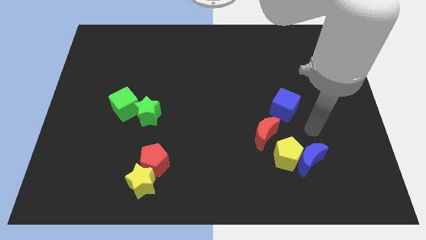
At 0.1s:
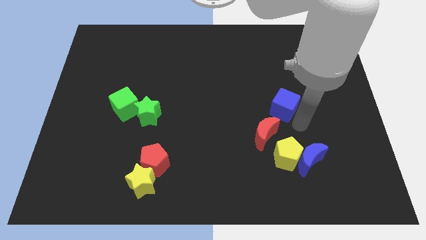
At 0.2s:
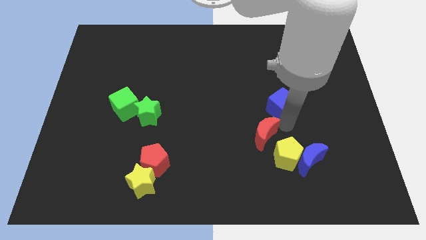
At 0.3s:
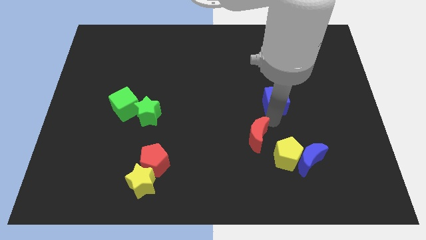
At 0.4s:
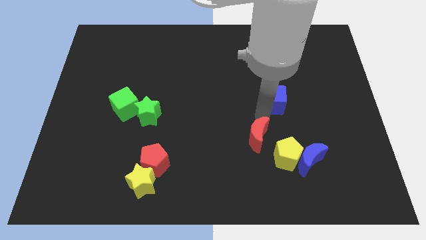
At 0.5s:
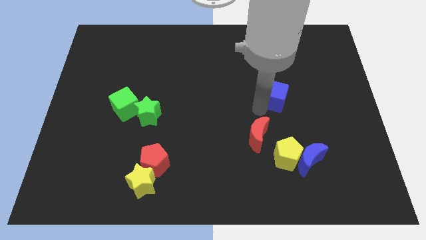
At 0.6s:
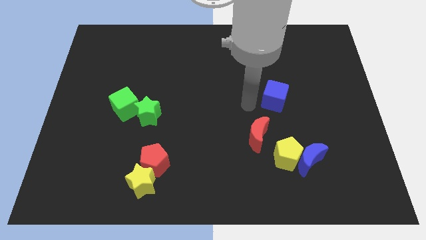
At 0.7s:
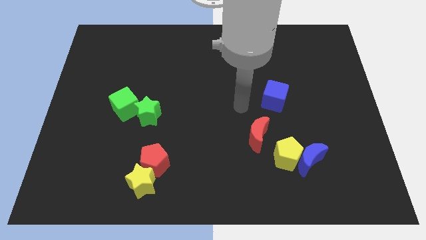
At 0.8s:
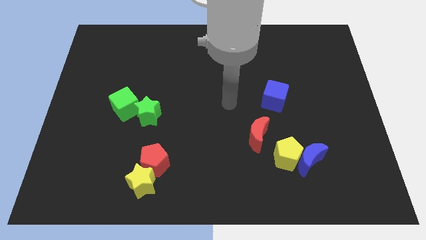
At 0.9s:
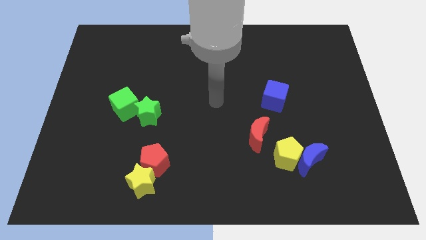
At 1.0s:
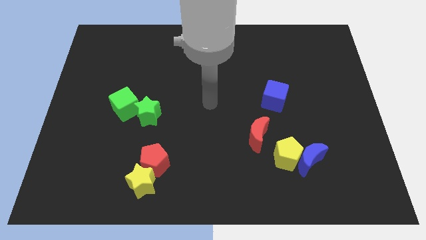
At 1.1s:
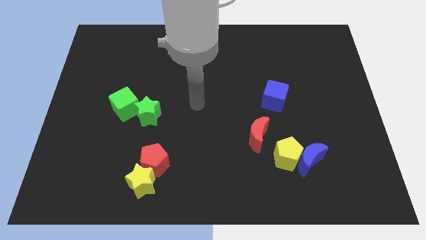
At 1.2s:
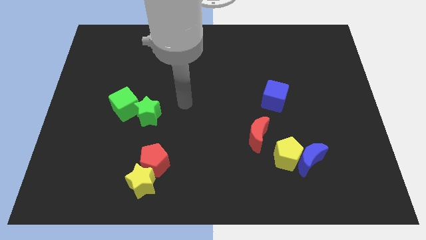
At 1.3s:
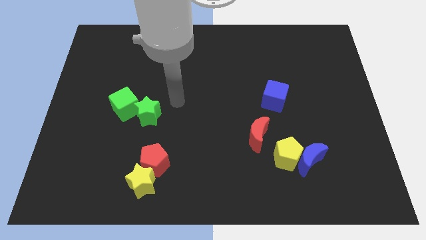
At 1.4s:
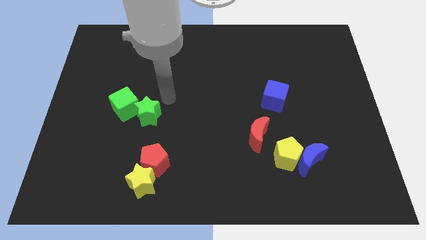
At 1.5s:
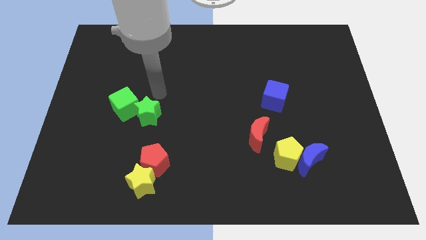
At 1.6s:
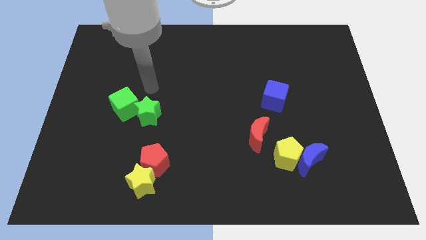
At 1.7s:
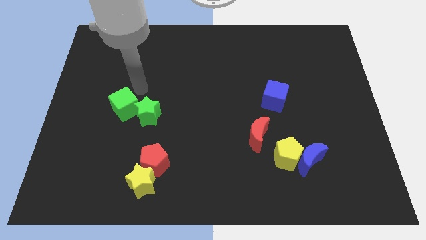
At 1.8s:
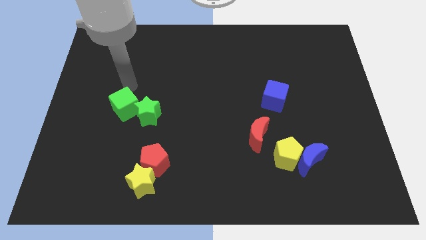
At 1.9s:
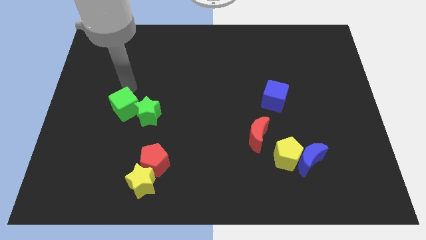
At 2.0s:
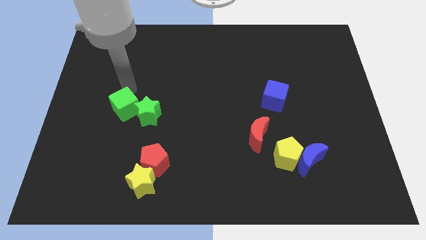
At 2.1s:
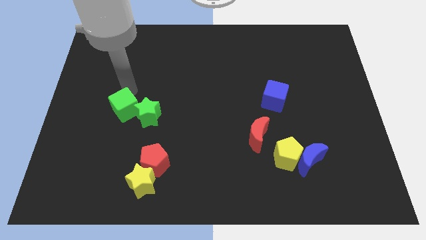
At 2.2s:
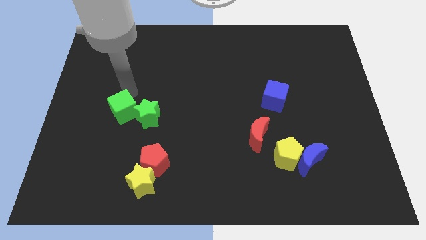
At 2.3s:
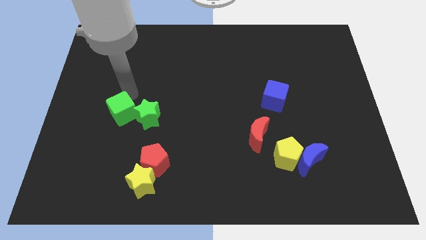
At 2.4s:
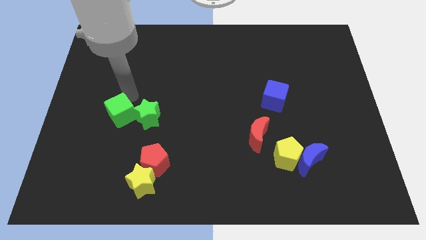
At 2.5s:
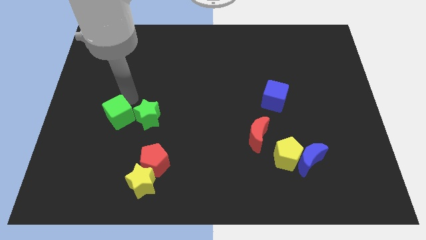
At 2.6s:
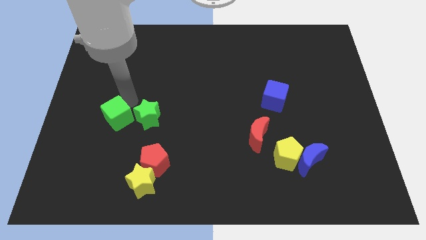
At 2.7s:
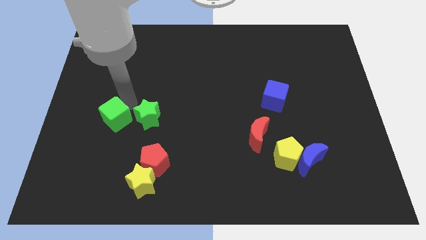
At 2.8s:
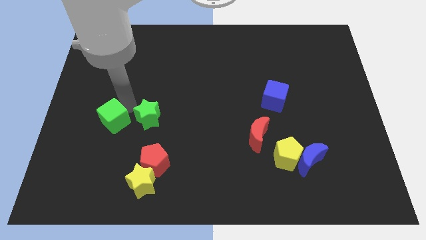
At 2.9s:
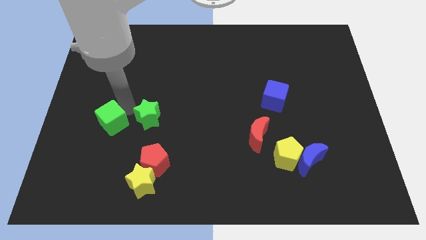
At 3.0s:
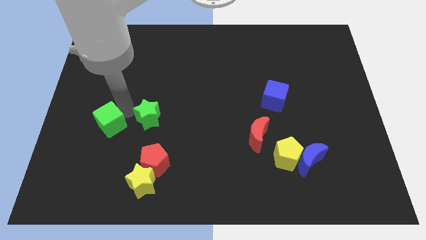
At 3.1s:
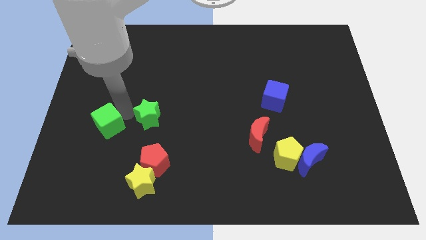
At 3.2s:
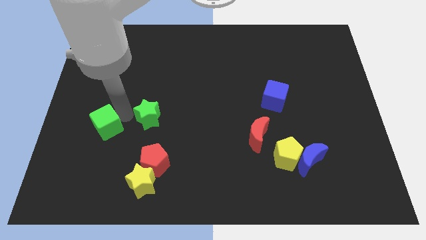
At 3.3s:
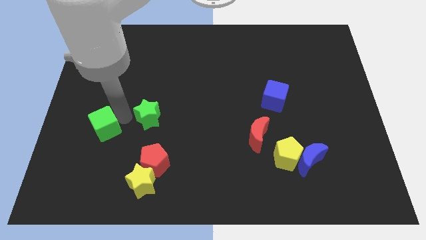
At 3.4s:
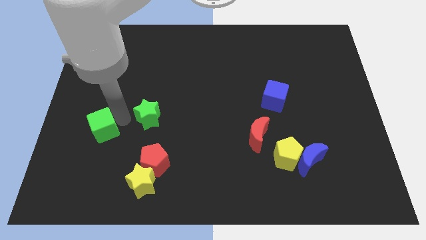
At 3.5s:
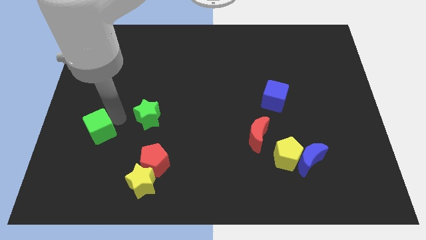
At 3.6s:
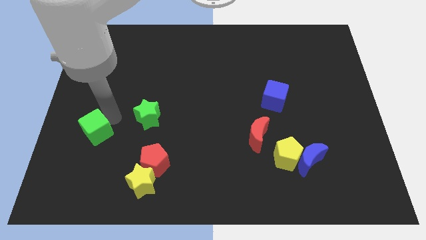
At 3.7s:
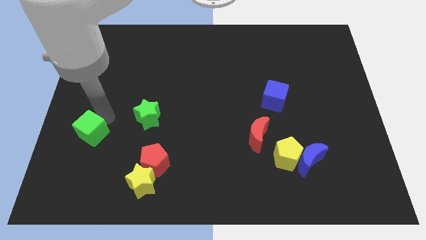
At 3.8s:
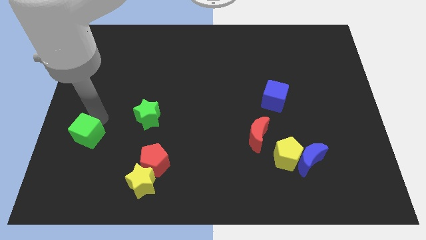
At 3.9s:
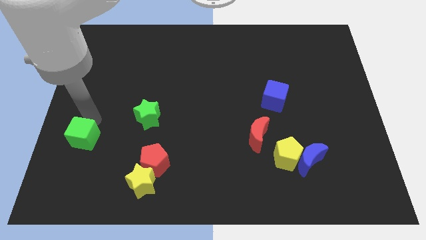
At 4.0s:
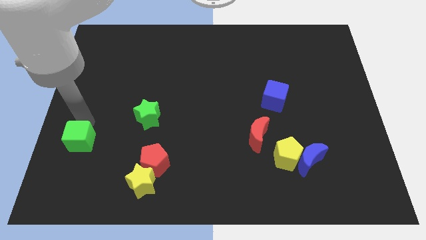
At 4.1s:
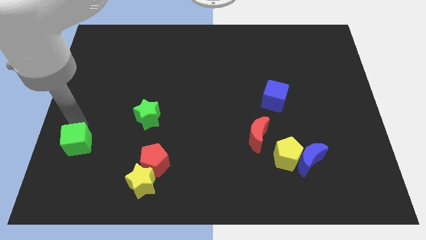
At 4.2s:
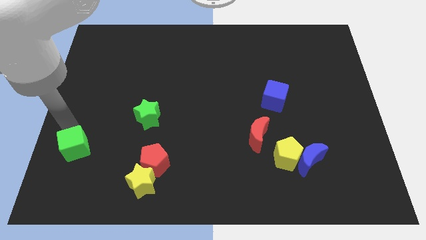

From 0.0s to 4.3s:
slightly push the green cube down

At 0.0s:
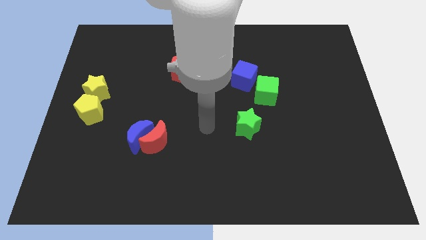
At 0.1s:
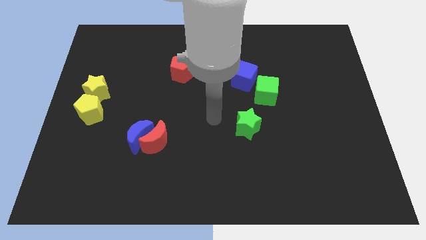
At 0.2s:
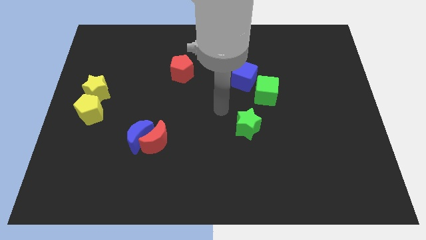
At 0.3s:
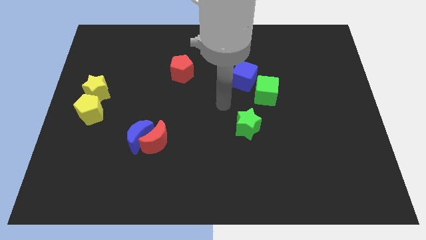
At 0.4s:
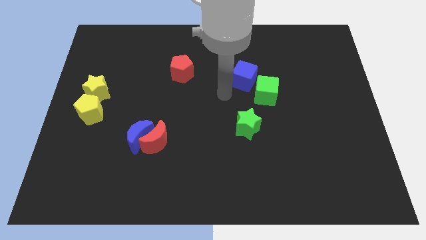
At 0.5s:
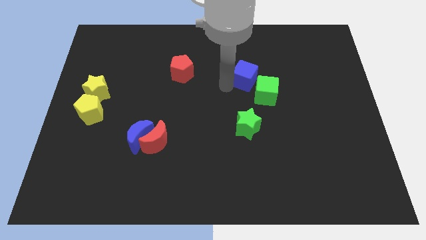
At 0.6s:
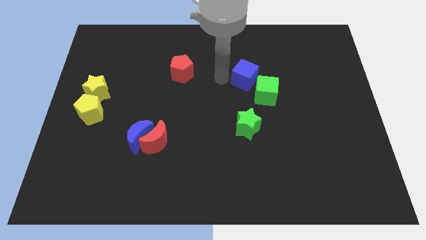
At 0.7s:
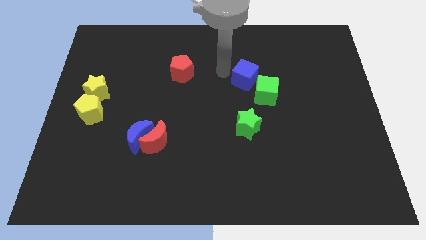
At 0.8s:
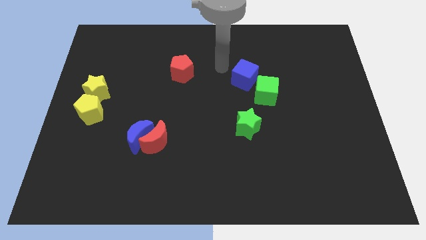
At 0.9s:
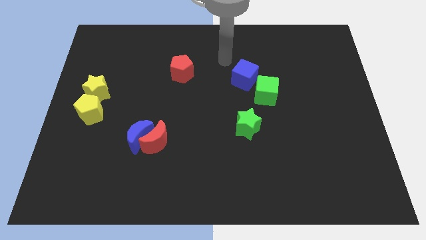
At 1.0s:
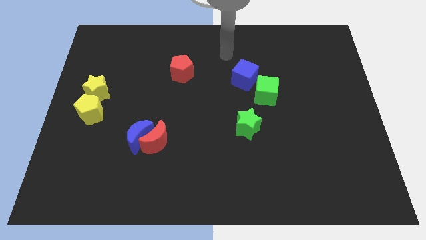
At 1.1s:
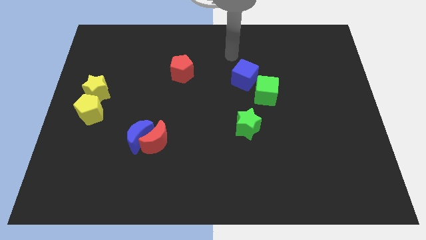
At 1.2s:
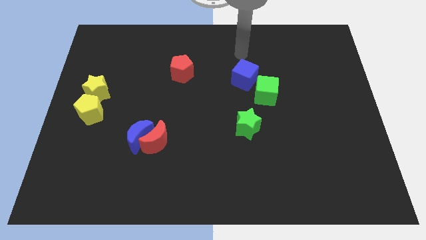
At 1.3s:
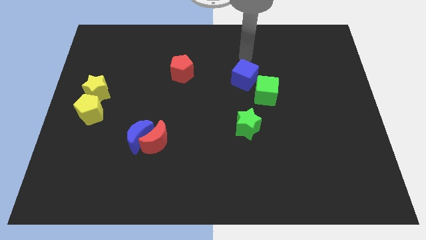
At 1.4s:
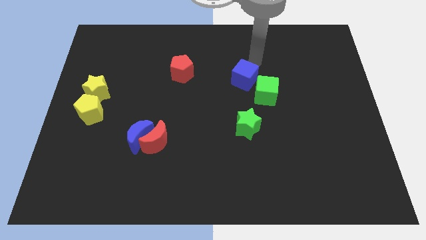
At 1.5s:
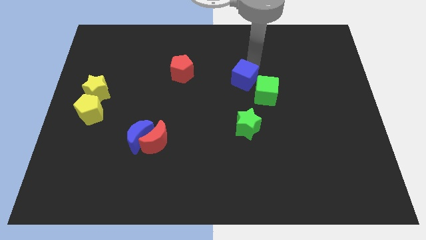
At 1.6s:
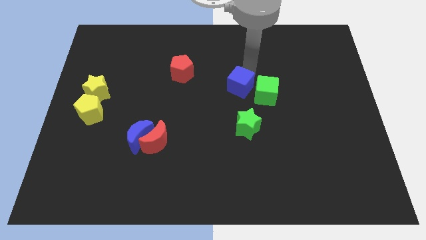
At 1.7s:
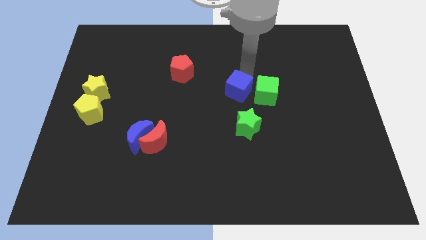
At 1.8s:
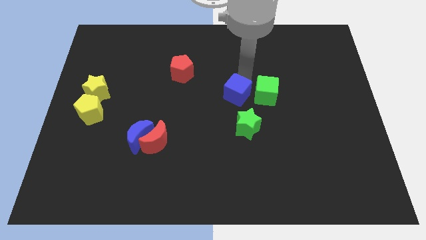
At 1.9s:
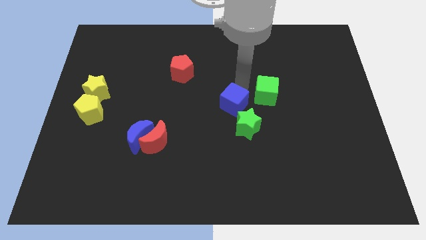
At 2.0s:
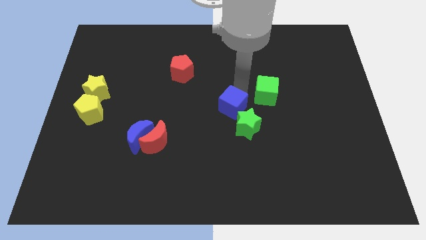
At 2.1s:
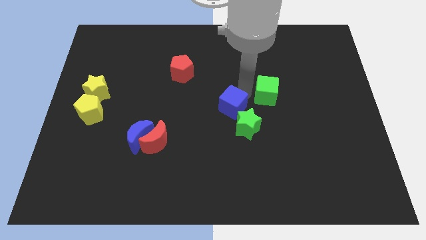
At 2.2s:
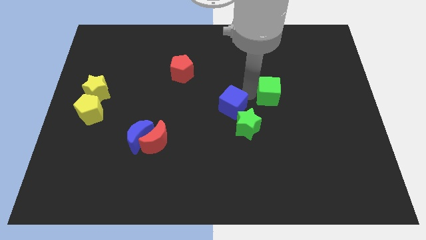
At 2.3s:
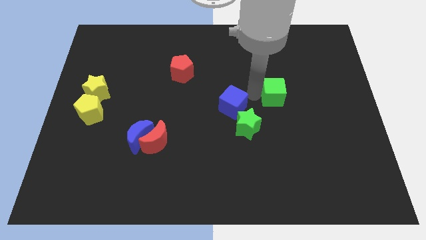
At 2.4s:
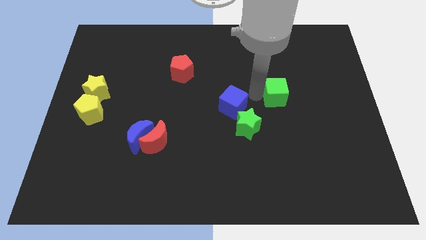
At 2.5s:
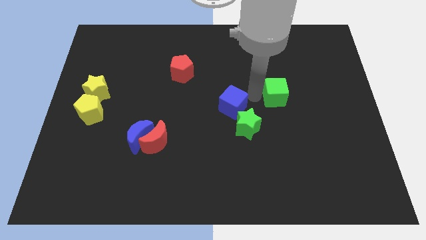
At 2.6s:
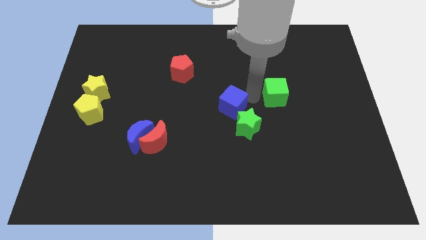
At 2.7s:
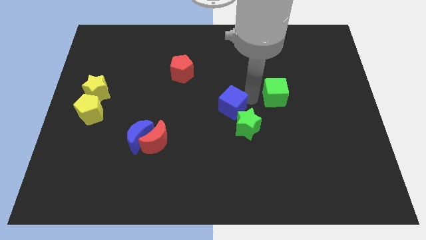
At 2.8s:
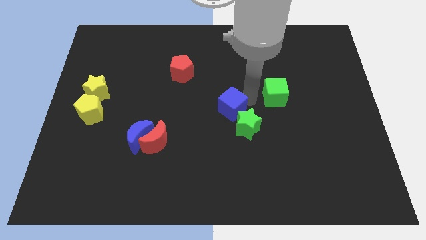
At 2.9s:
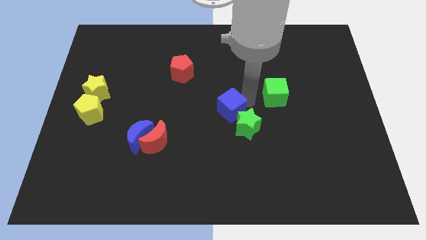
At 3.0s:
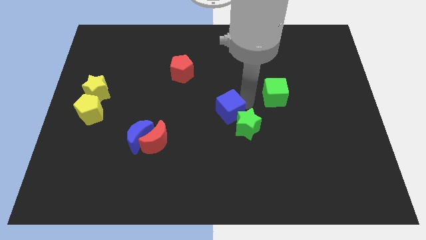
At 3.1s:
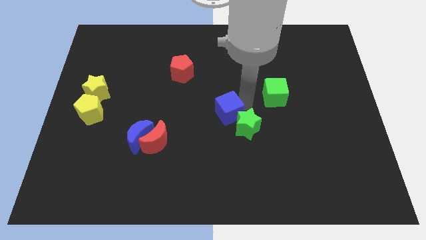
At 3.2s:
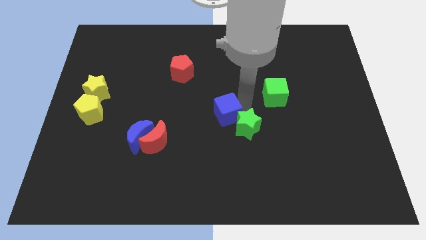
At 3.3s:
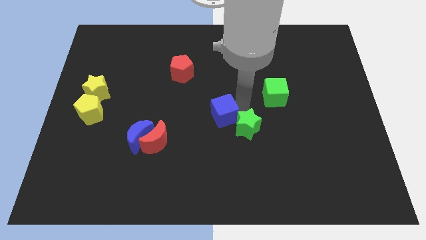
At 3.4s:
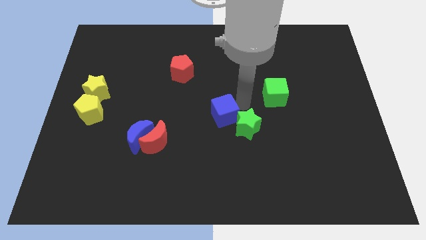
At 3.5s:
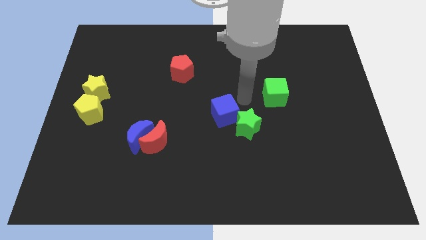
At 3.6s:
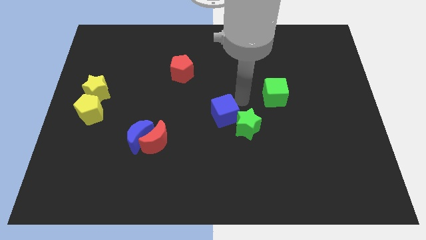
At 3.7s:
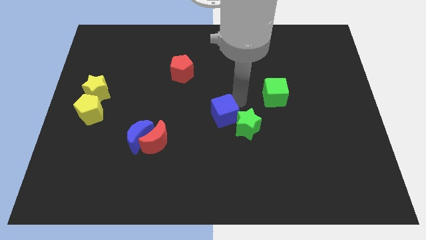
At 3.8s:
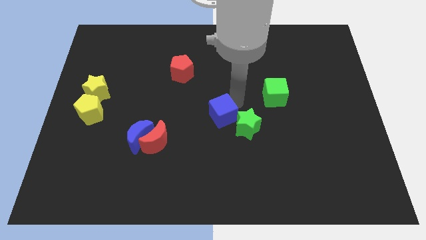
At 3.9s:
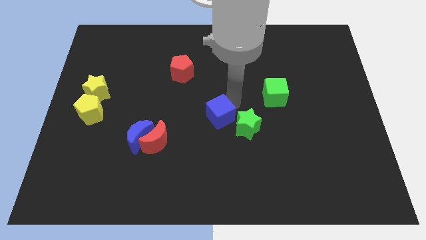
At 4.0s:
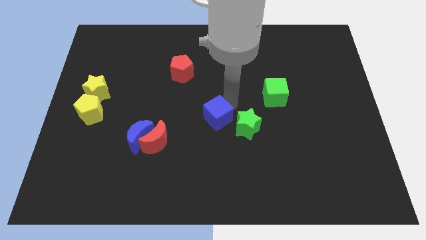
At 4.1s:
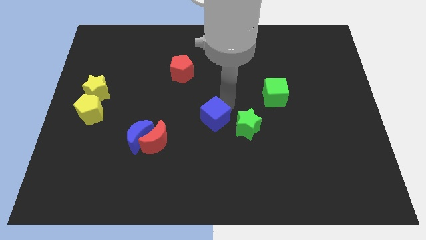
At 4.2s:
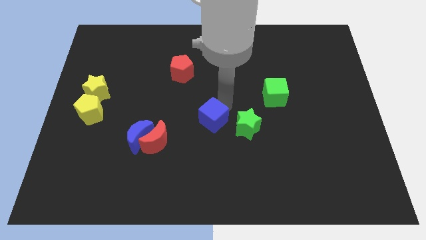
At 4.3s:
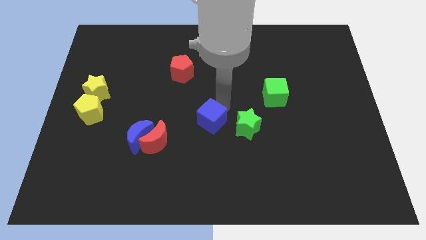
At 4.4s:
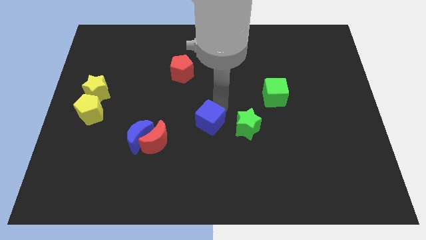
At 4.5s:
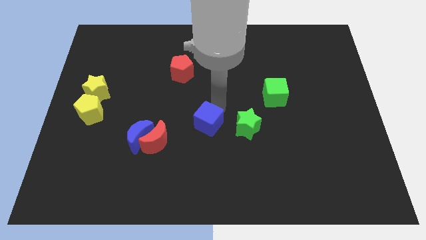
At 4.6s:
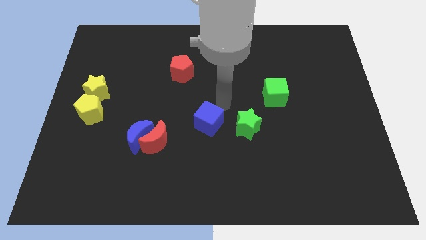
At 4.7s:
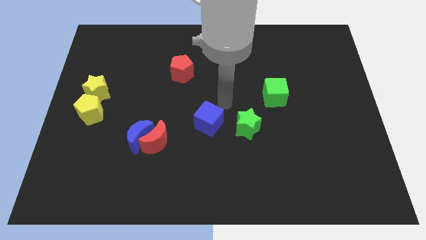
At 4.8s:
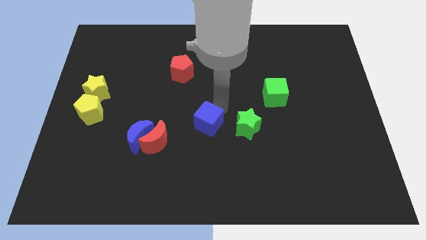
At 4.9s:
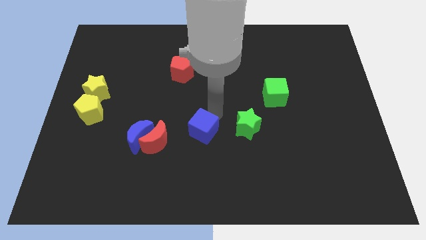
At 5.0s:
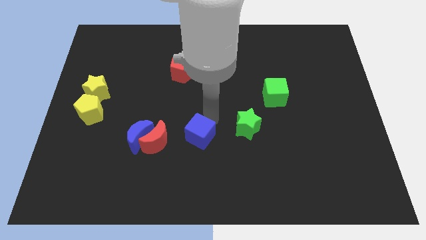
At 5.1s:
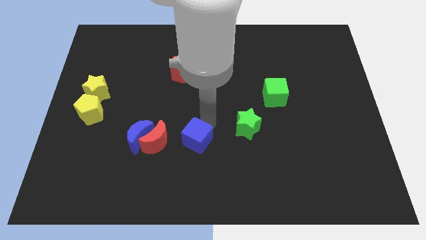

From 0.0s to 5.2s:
move the blue cube down and left
